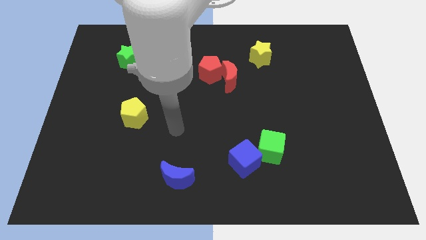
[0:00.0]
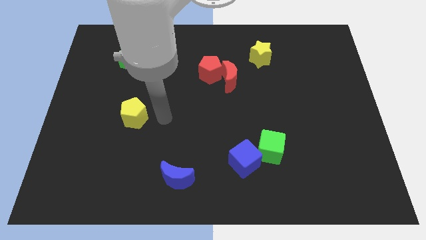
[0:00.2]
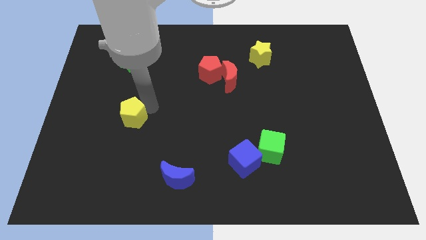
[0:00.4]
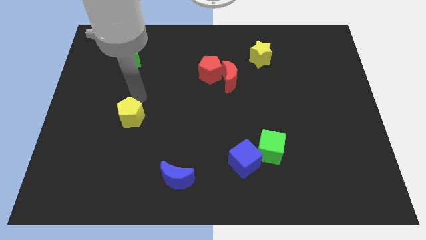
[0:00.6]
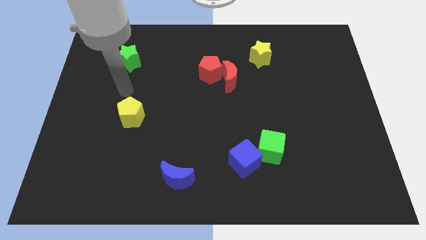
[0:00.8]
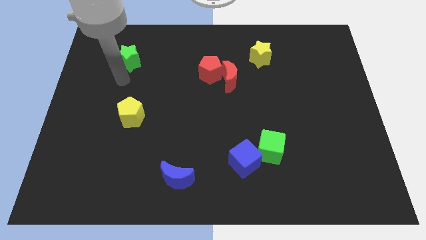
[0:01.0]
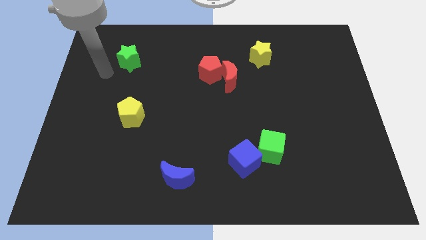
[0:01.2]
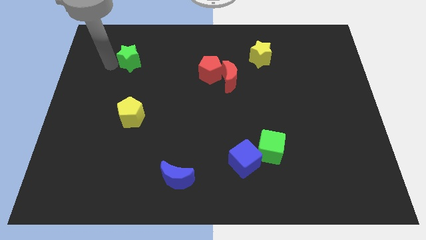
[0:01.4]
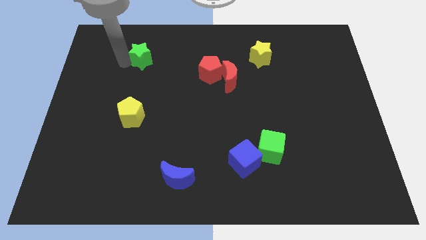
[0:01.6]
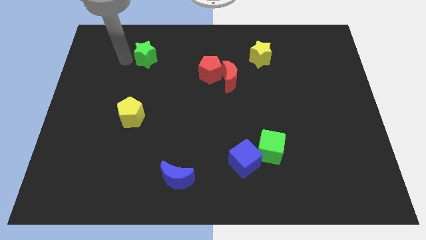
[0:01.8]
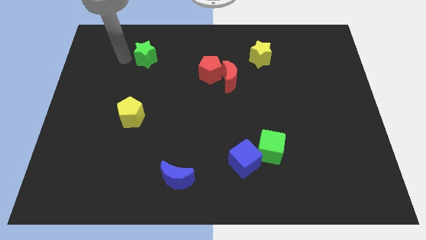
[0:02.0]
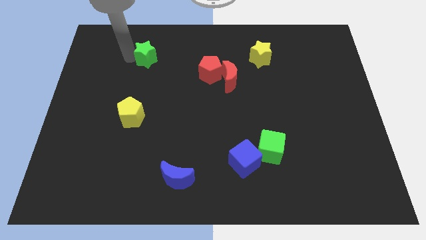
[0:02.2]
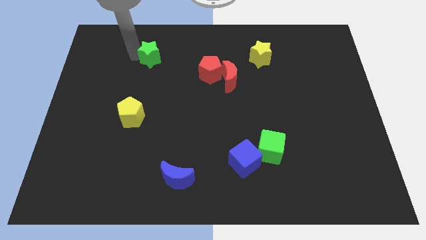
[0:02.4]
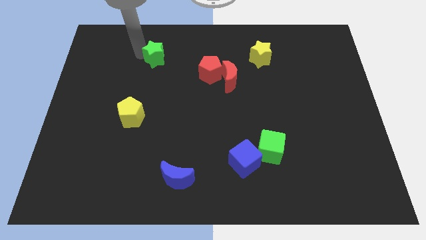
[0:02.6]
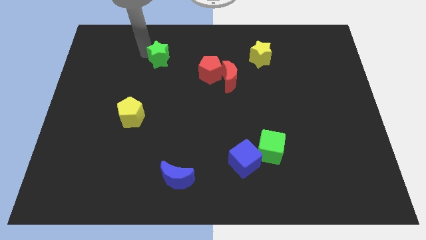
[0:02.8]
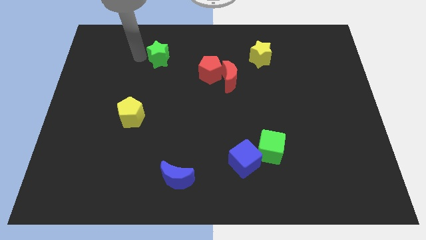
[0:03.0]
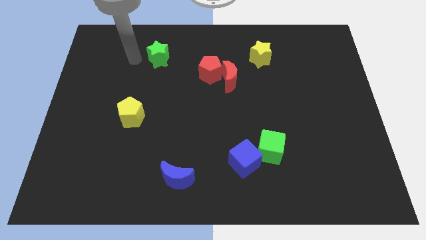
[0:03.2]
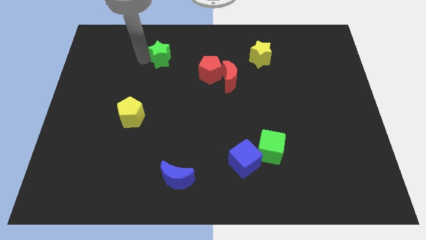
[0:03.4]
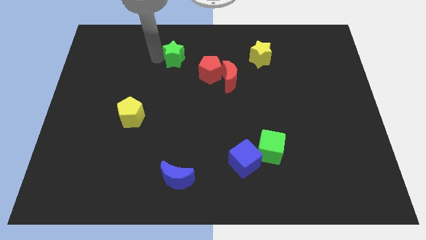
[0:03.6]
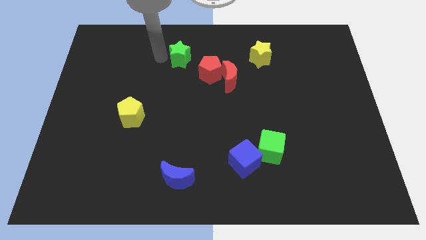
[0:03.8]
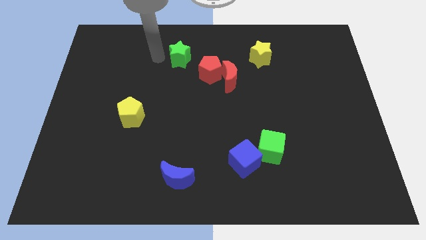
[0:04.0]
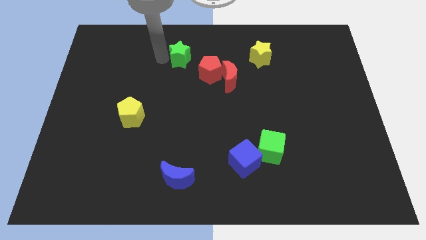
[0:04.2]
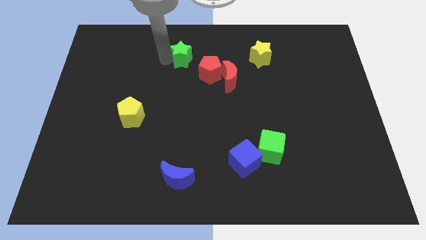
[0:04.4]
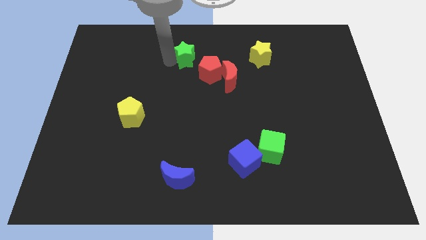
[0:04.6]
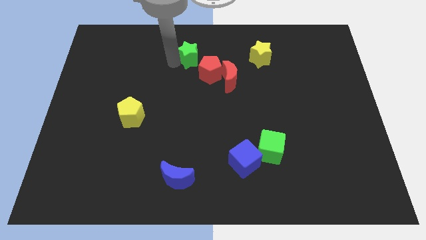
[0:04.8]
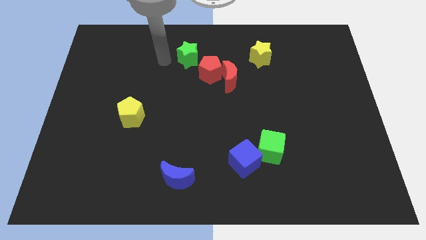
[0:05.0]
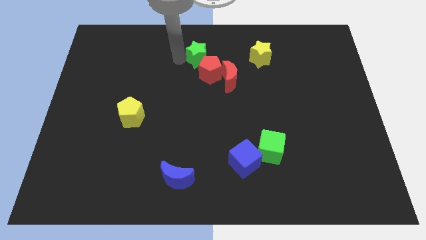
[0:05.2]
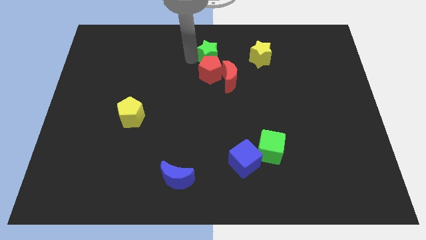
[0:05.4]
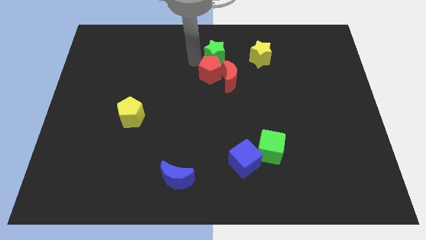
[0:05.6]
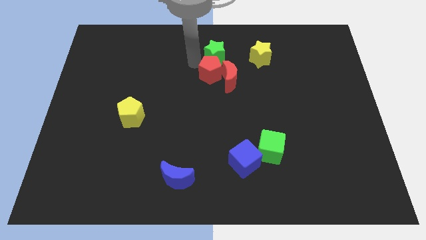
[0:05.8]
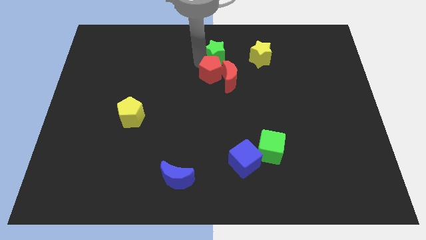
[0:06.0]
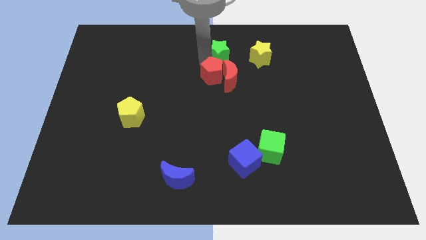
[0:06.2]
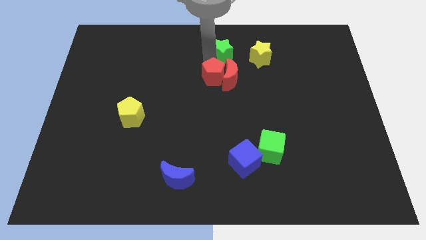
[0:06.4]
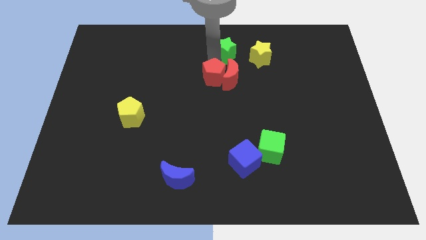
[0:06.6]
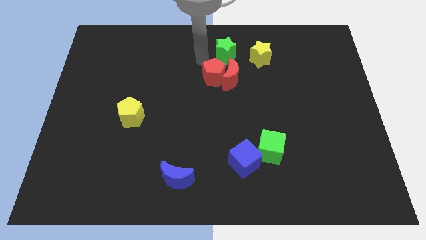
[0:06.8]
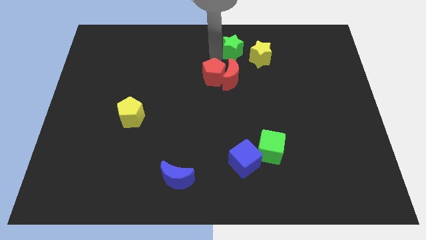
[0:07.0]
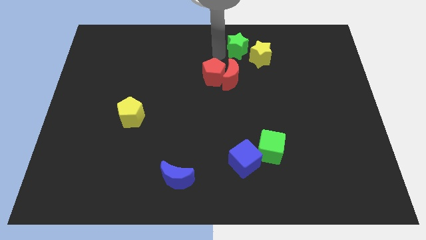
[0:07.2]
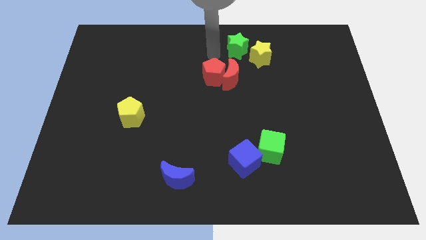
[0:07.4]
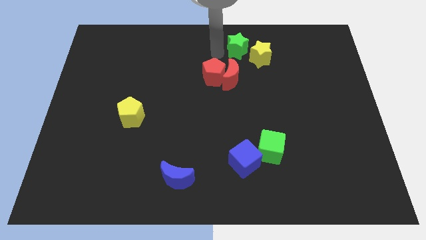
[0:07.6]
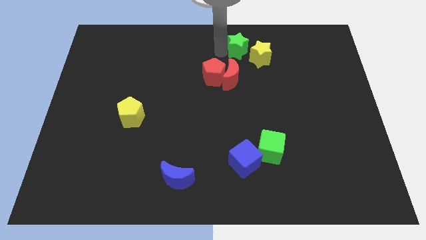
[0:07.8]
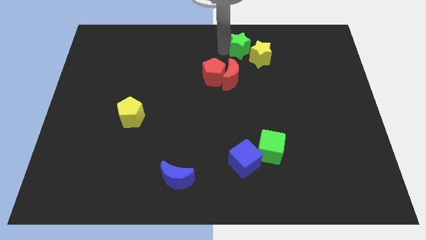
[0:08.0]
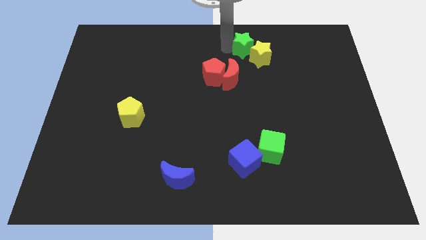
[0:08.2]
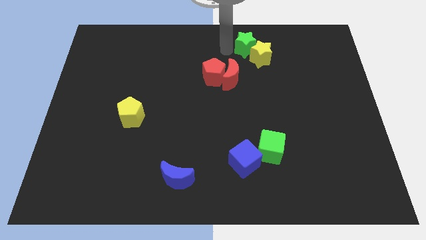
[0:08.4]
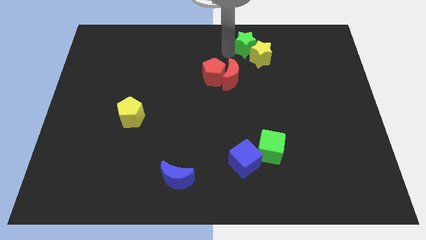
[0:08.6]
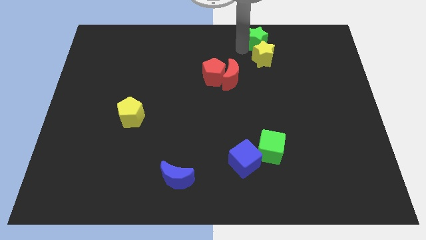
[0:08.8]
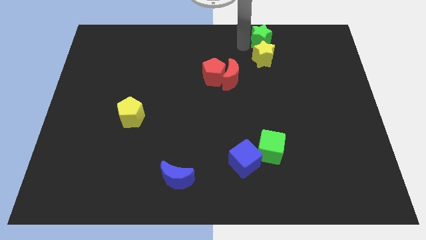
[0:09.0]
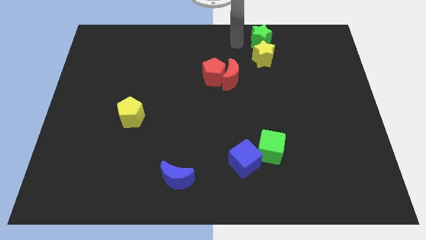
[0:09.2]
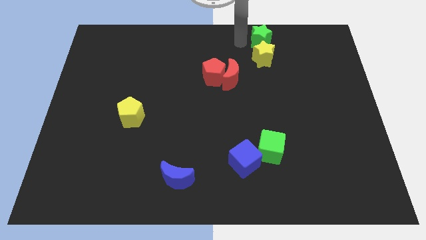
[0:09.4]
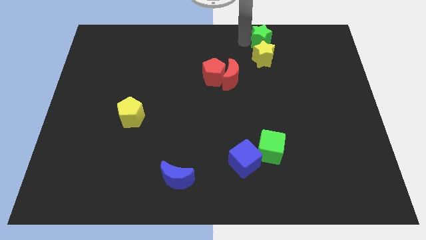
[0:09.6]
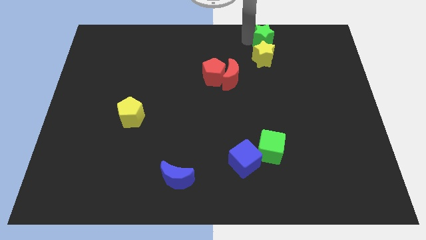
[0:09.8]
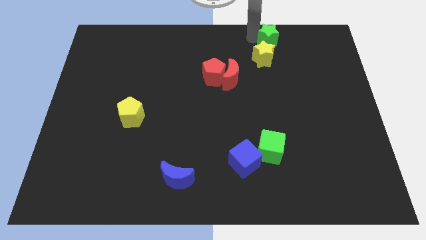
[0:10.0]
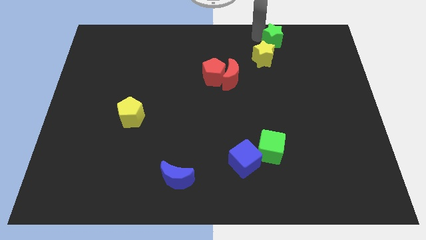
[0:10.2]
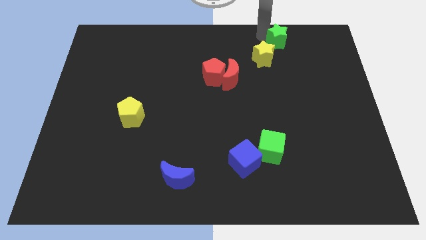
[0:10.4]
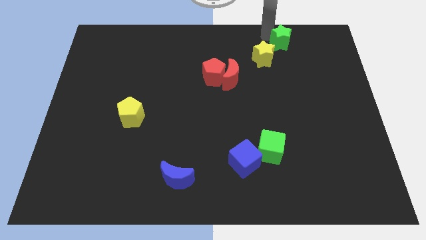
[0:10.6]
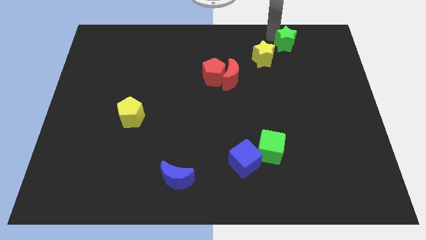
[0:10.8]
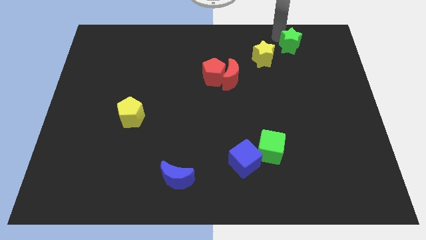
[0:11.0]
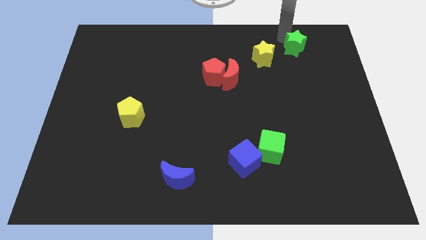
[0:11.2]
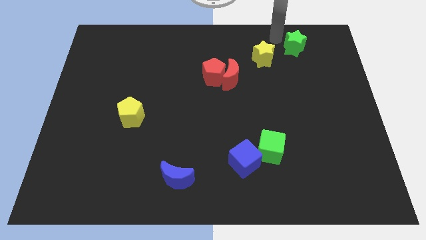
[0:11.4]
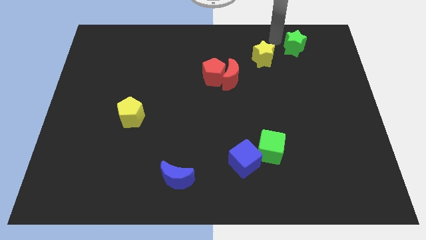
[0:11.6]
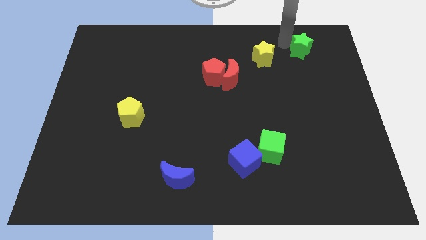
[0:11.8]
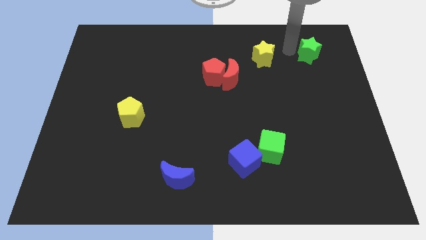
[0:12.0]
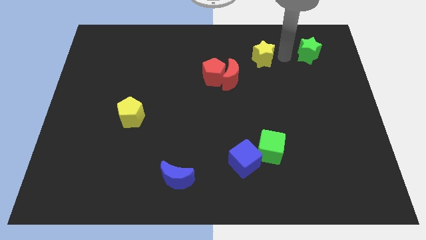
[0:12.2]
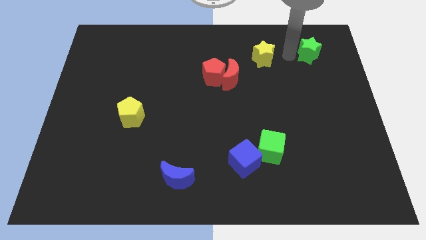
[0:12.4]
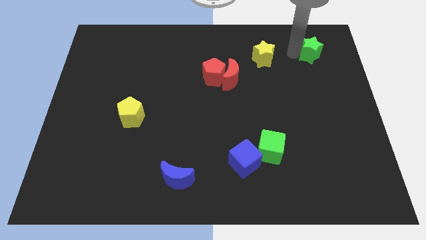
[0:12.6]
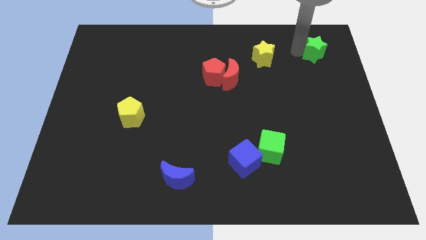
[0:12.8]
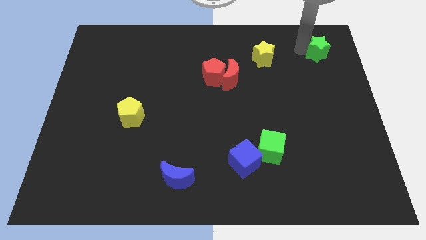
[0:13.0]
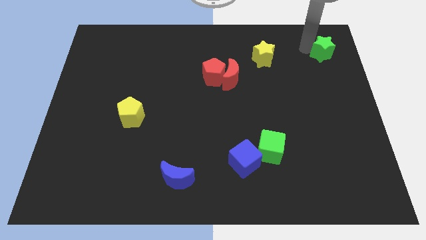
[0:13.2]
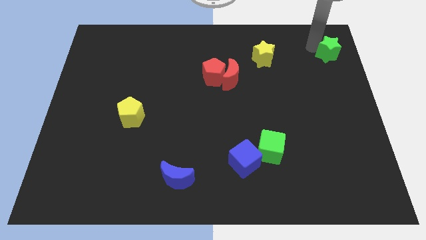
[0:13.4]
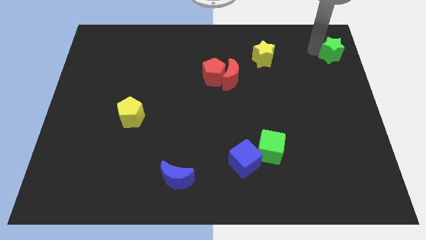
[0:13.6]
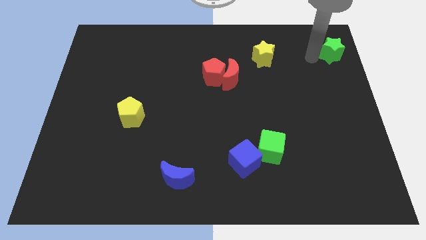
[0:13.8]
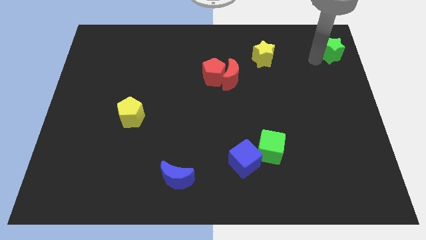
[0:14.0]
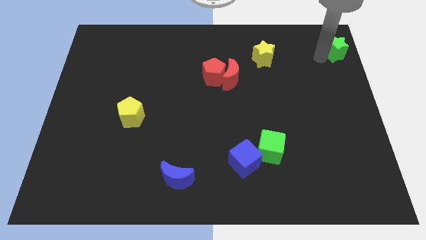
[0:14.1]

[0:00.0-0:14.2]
put the green star to the top right
